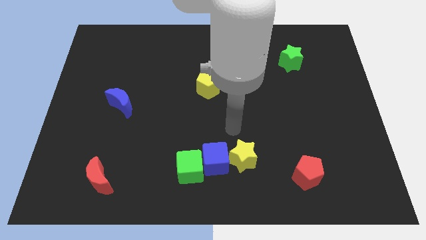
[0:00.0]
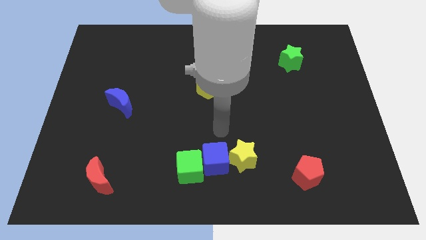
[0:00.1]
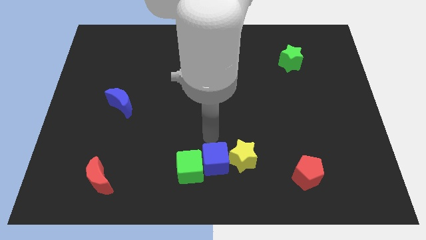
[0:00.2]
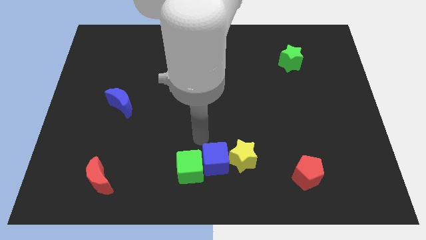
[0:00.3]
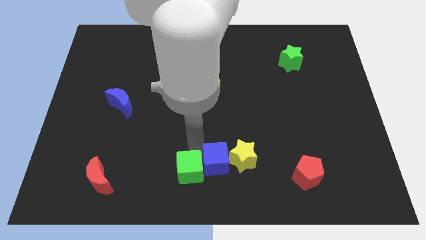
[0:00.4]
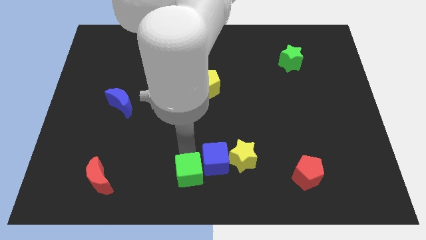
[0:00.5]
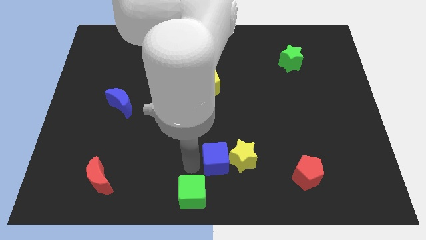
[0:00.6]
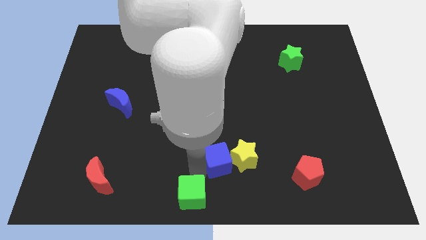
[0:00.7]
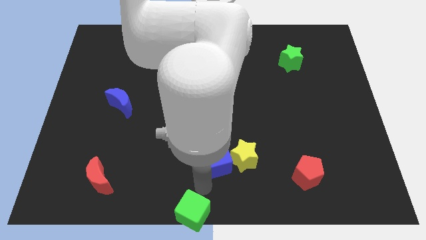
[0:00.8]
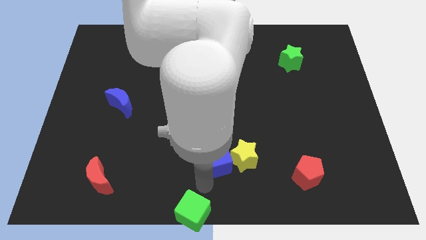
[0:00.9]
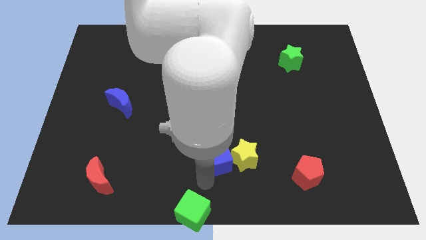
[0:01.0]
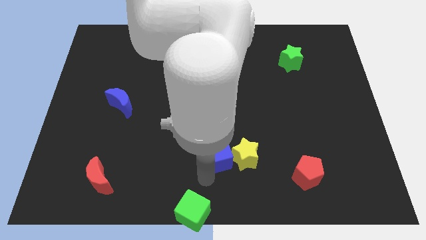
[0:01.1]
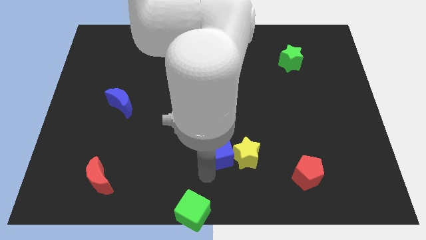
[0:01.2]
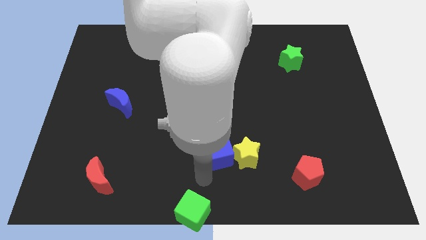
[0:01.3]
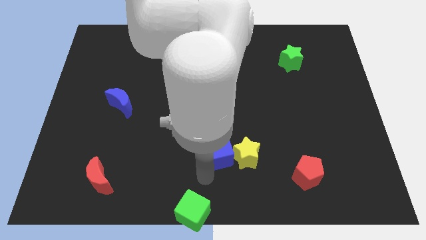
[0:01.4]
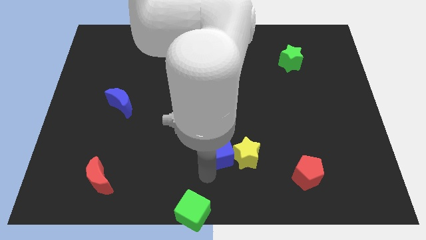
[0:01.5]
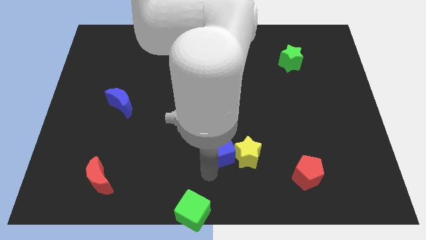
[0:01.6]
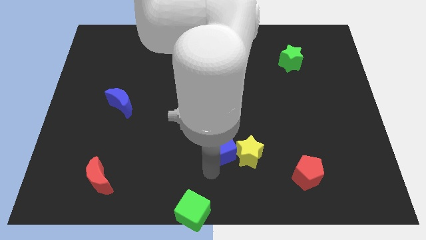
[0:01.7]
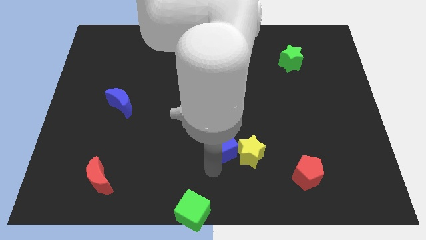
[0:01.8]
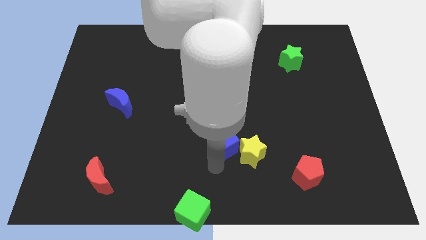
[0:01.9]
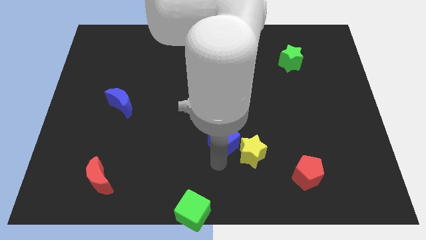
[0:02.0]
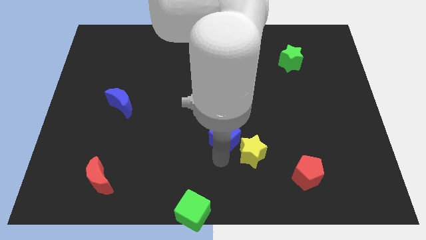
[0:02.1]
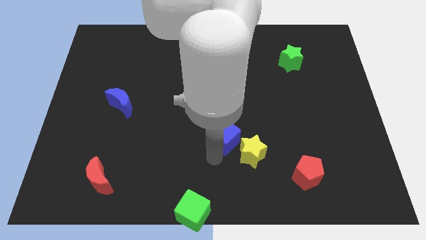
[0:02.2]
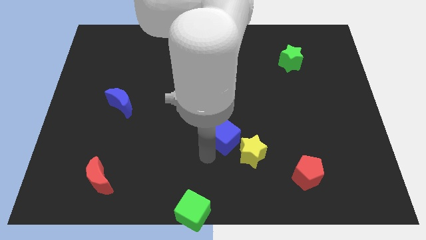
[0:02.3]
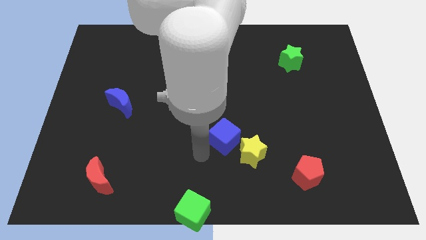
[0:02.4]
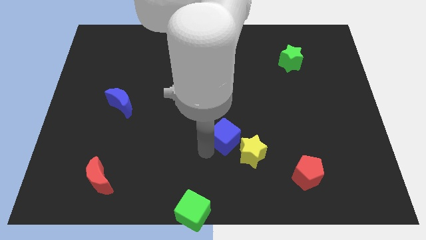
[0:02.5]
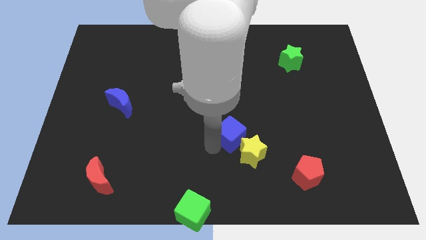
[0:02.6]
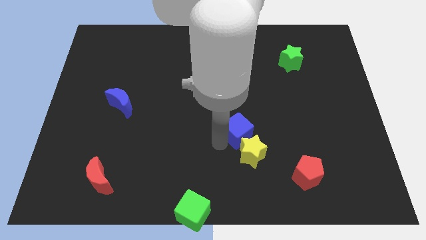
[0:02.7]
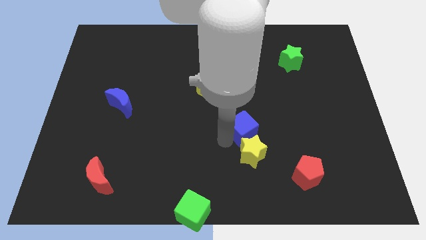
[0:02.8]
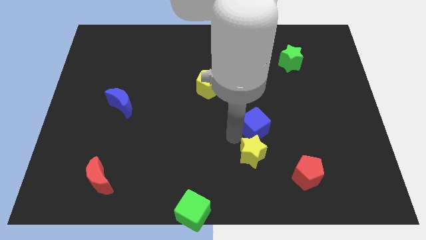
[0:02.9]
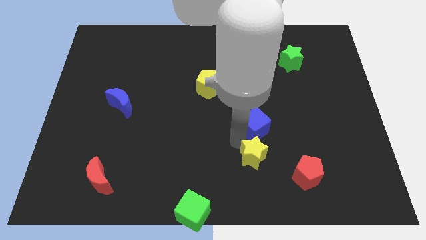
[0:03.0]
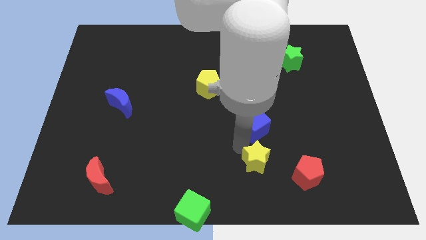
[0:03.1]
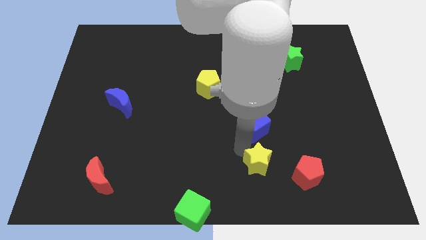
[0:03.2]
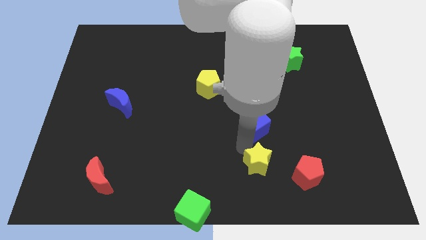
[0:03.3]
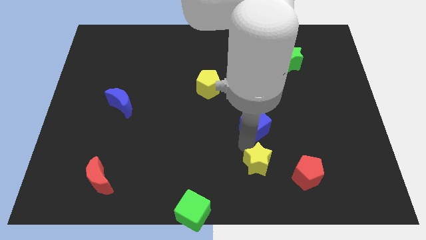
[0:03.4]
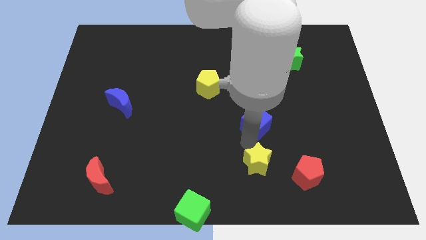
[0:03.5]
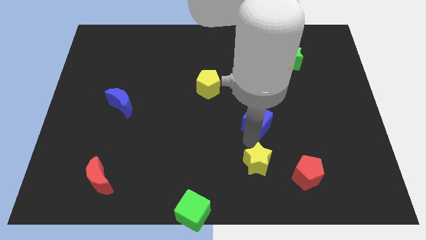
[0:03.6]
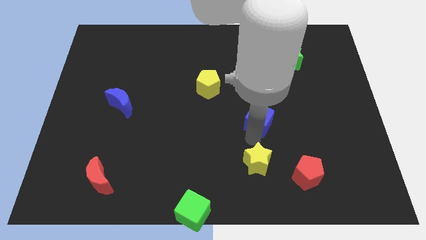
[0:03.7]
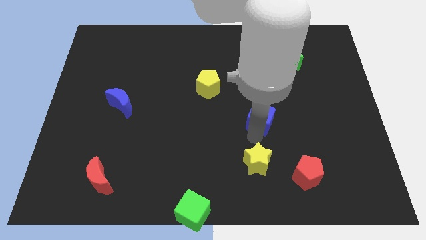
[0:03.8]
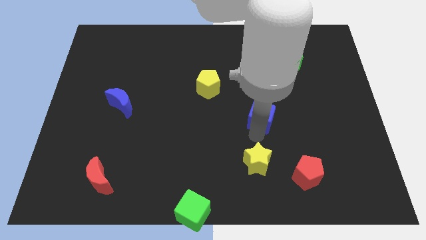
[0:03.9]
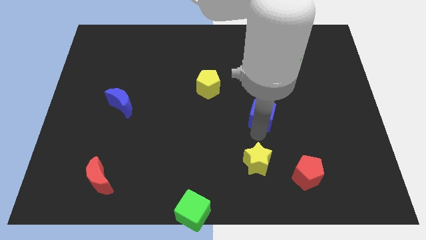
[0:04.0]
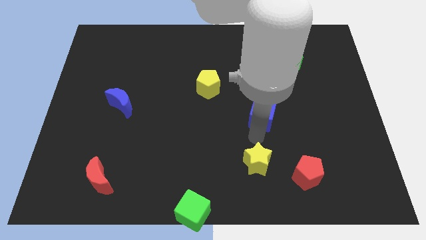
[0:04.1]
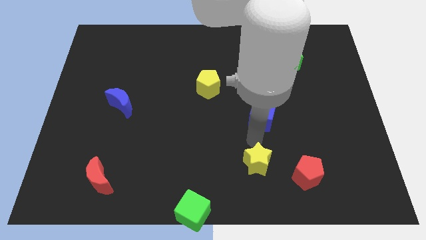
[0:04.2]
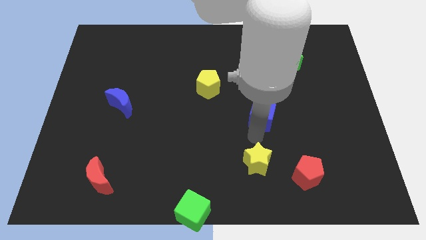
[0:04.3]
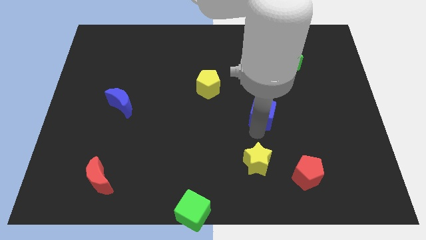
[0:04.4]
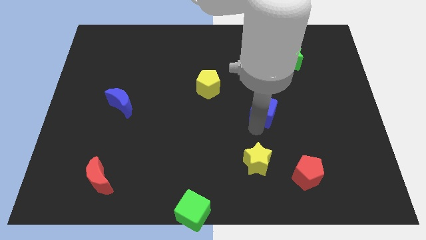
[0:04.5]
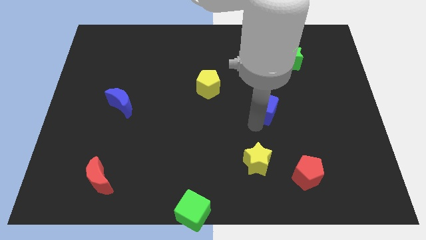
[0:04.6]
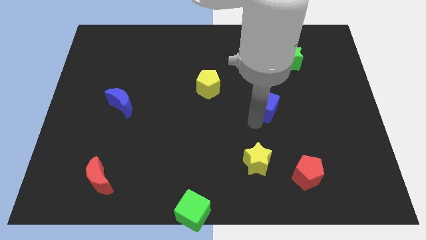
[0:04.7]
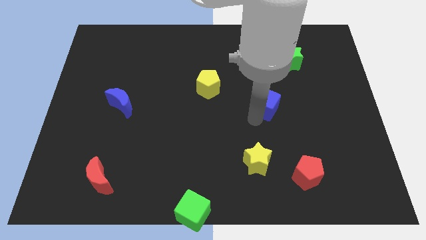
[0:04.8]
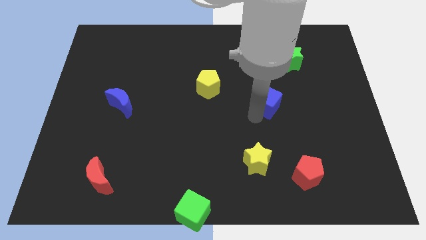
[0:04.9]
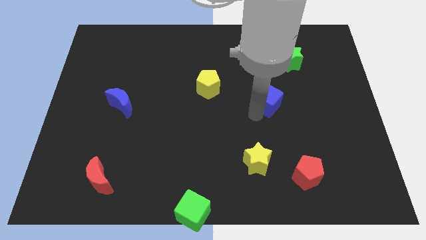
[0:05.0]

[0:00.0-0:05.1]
push the blue cube upwards and then to the right

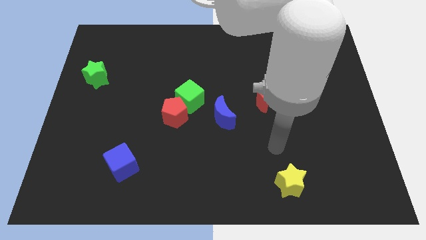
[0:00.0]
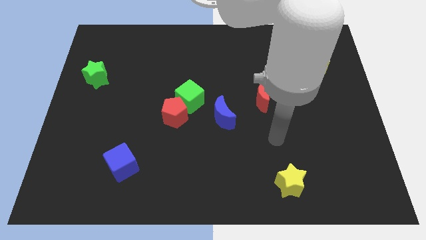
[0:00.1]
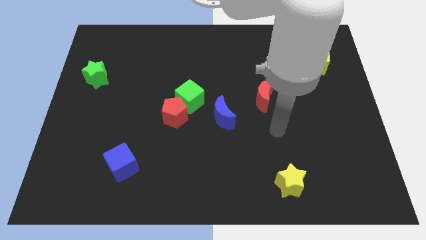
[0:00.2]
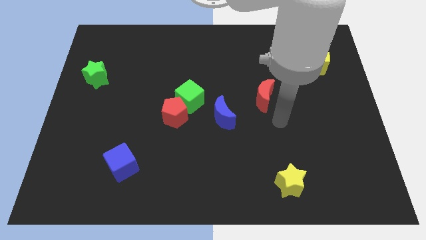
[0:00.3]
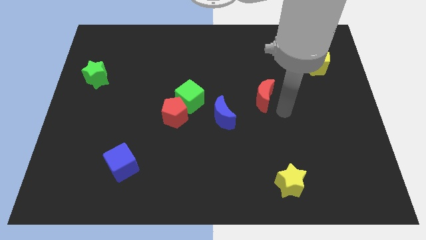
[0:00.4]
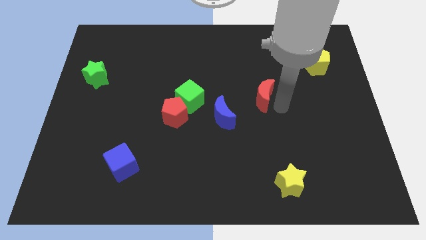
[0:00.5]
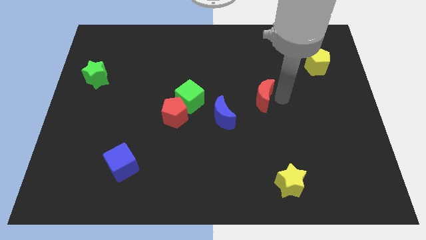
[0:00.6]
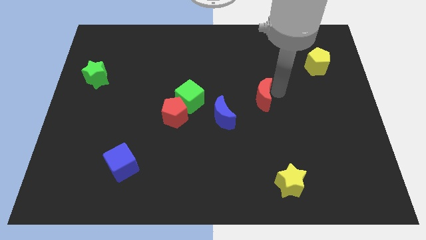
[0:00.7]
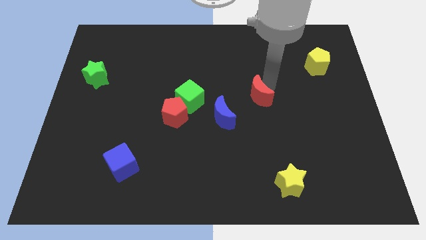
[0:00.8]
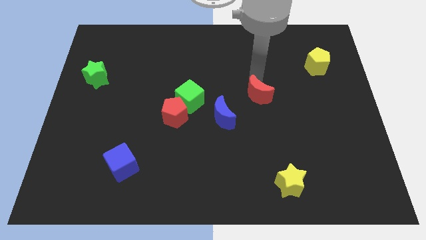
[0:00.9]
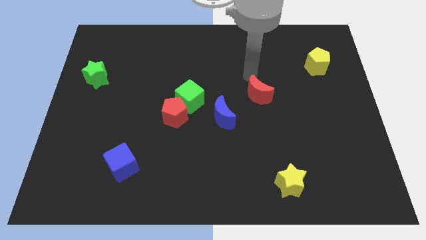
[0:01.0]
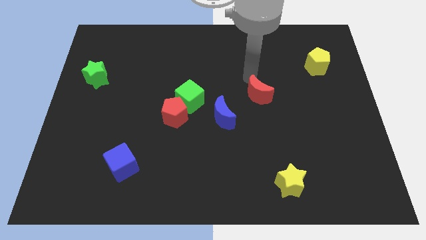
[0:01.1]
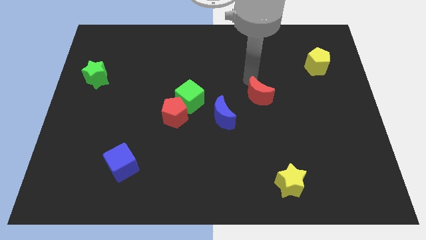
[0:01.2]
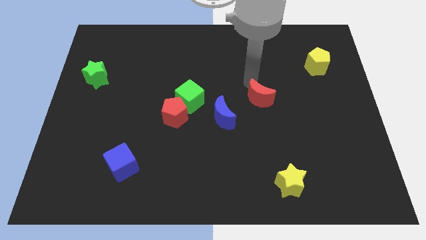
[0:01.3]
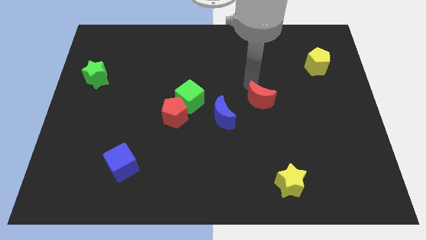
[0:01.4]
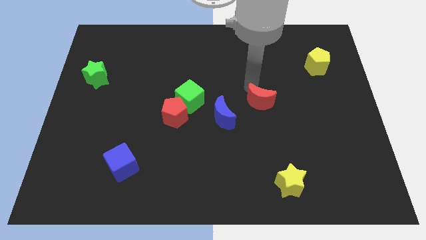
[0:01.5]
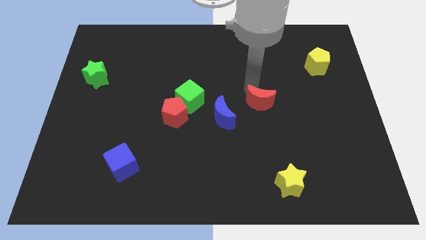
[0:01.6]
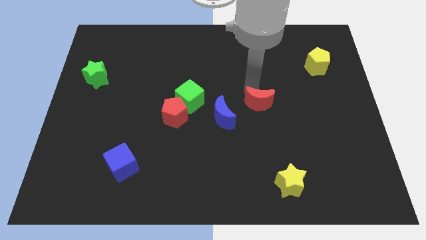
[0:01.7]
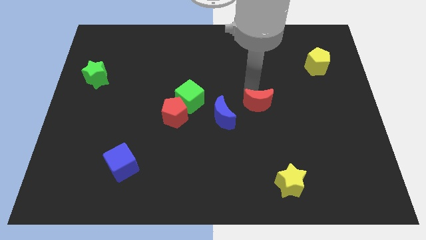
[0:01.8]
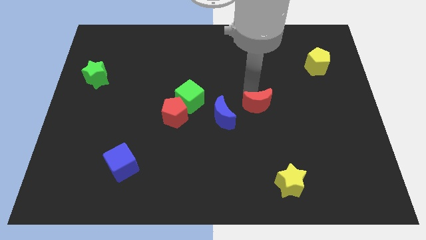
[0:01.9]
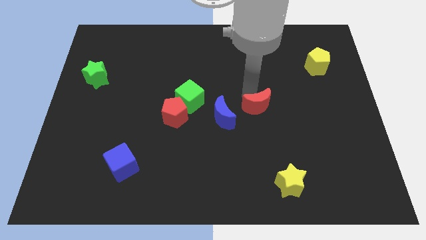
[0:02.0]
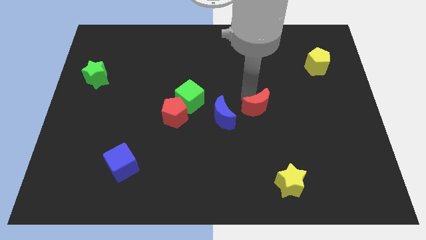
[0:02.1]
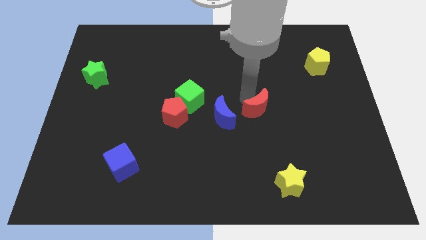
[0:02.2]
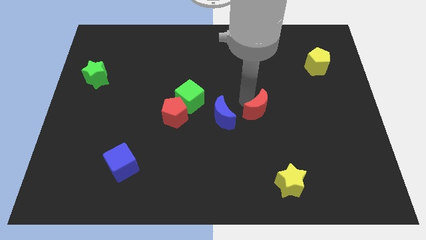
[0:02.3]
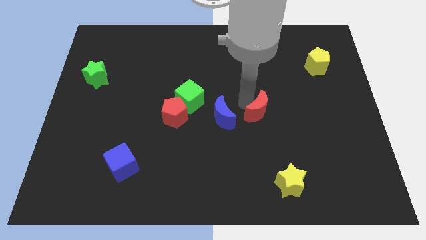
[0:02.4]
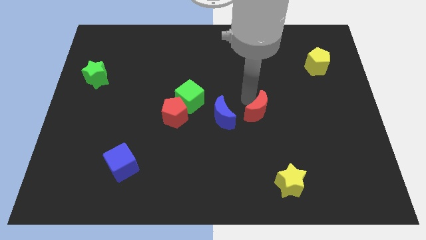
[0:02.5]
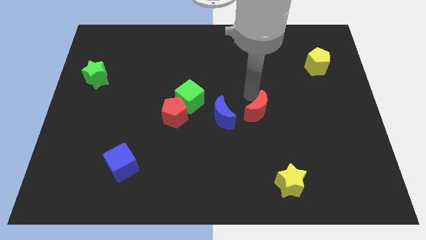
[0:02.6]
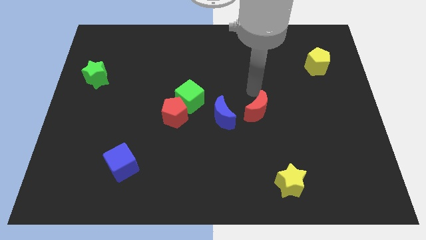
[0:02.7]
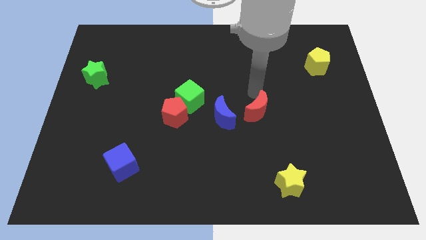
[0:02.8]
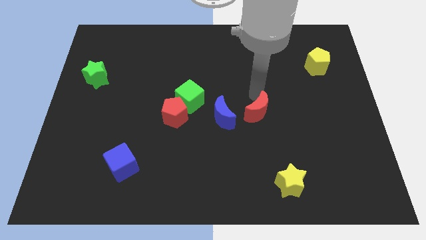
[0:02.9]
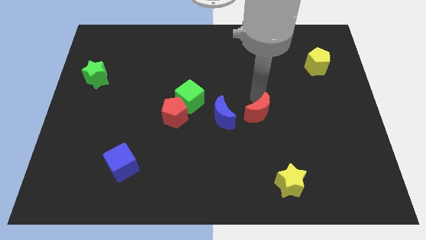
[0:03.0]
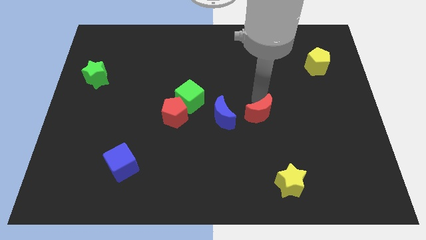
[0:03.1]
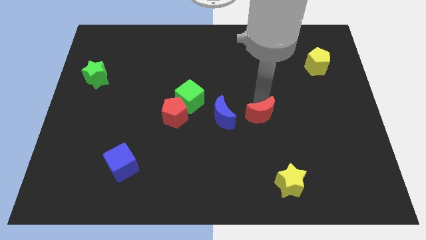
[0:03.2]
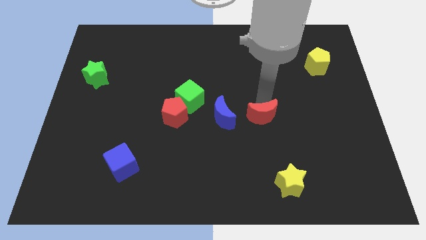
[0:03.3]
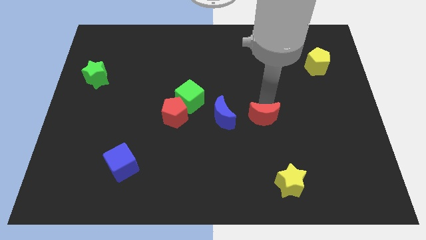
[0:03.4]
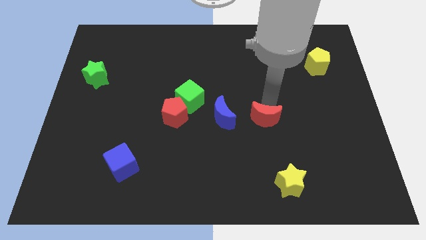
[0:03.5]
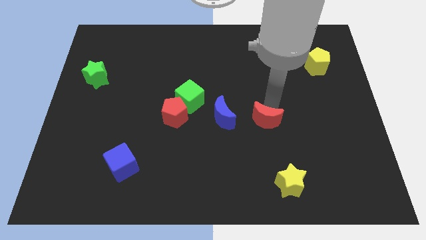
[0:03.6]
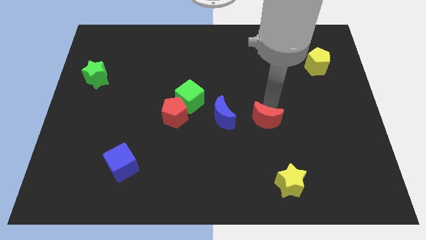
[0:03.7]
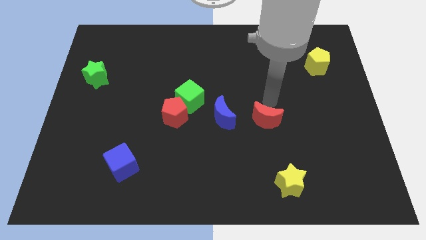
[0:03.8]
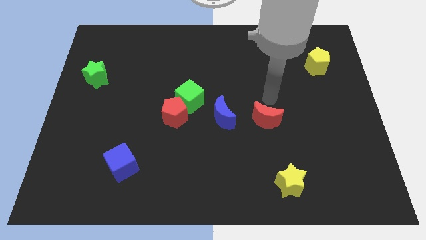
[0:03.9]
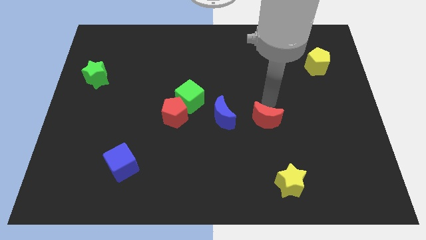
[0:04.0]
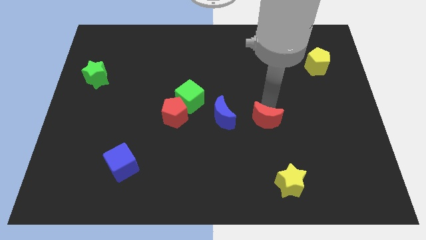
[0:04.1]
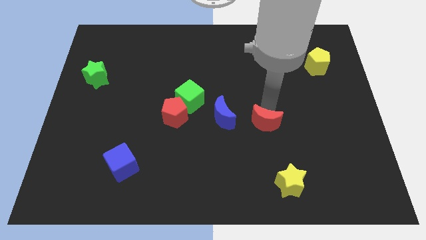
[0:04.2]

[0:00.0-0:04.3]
slightly slide the red moon downwards
